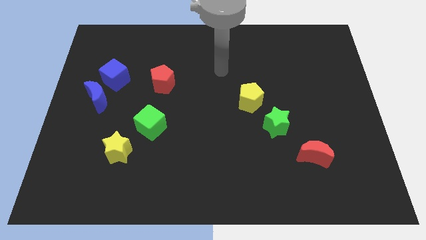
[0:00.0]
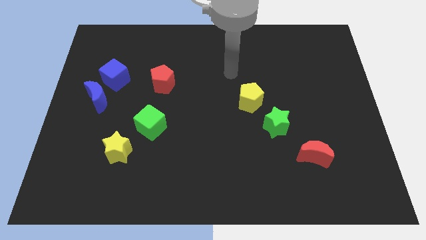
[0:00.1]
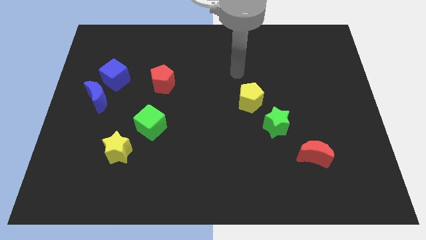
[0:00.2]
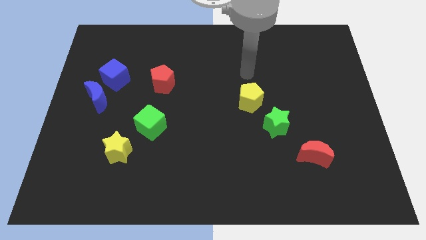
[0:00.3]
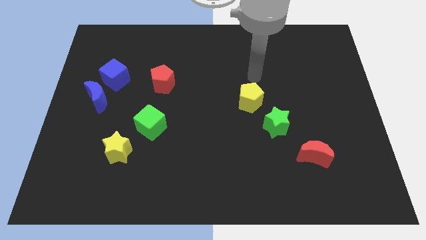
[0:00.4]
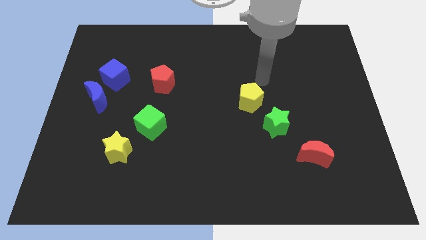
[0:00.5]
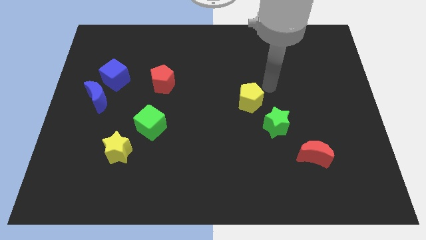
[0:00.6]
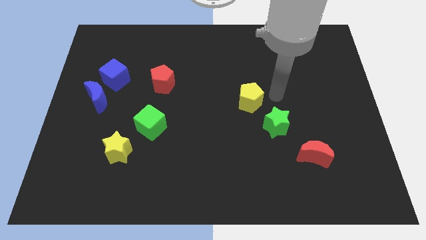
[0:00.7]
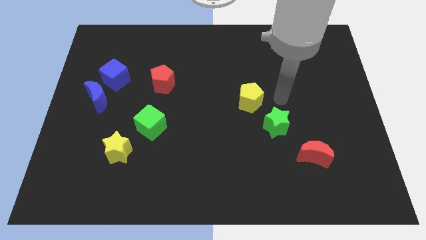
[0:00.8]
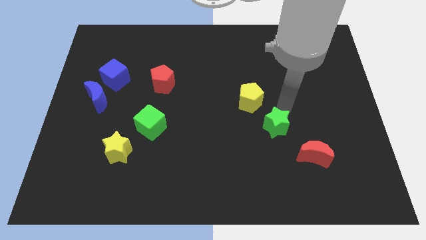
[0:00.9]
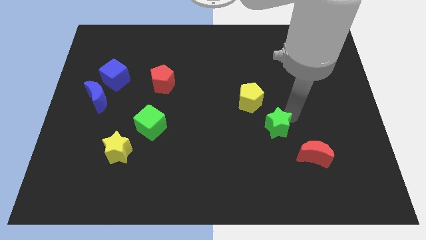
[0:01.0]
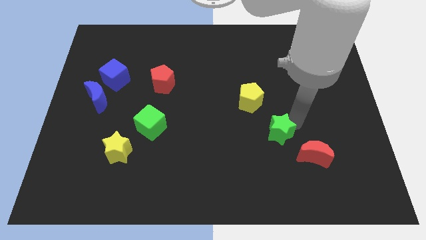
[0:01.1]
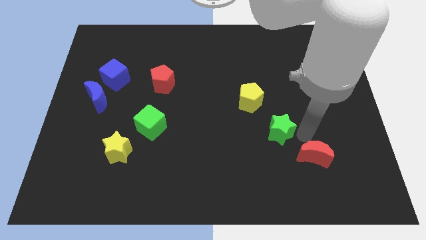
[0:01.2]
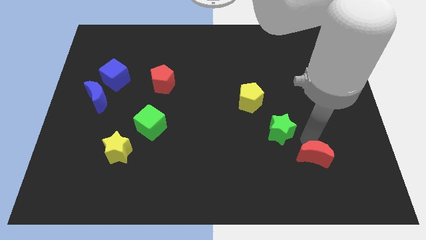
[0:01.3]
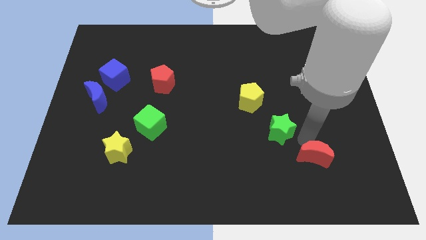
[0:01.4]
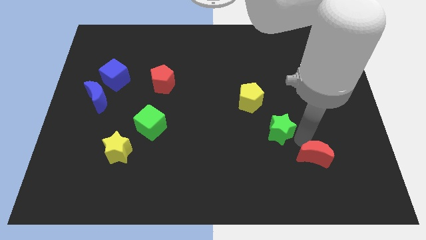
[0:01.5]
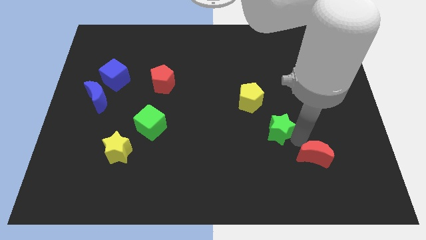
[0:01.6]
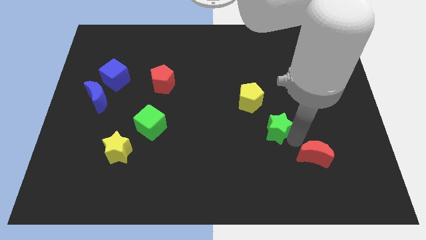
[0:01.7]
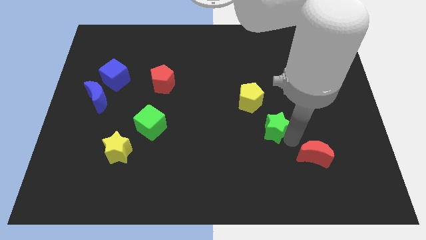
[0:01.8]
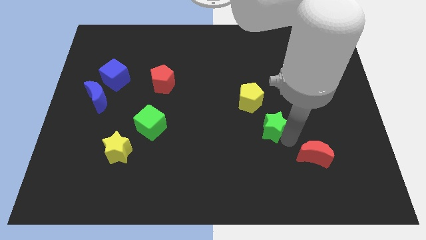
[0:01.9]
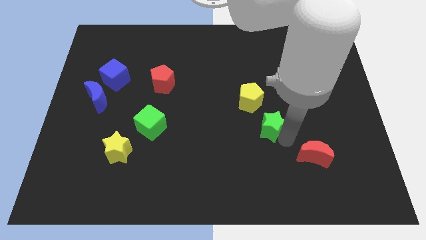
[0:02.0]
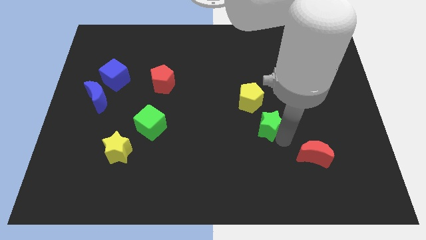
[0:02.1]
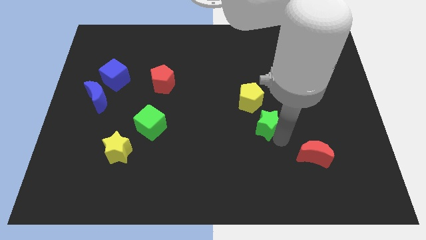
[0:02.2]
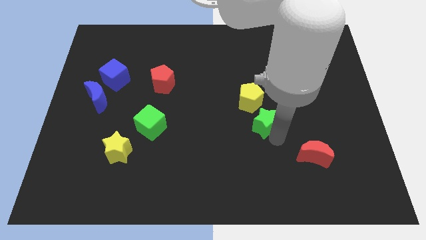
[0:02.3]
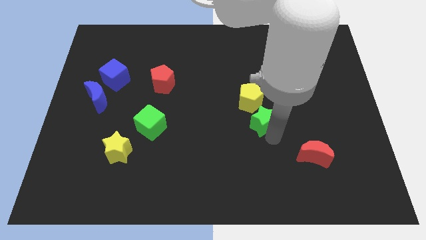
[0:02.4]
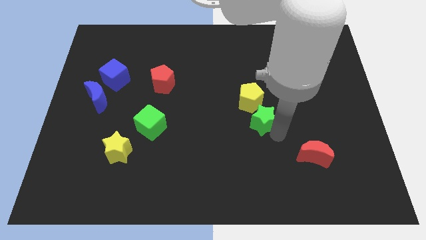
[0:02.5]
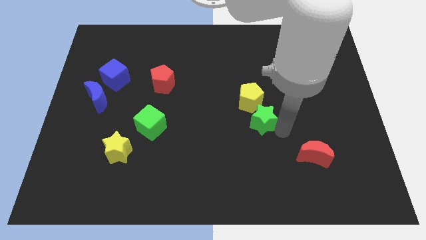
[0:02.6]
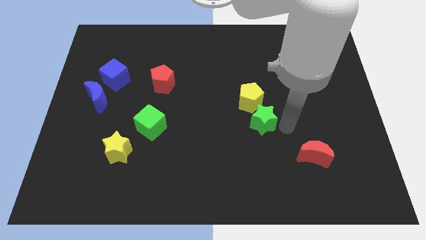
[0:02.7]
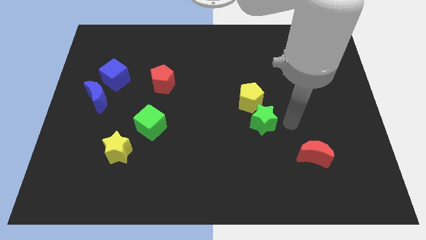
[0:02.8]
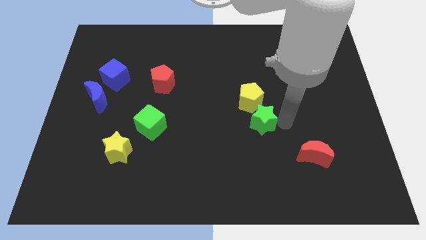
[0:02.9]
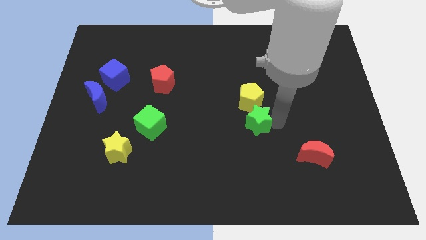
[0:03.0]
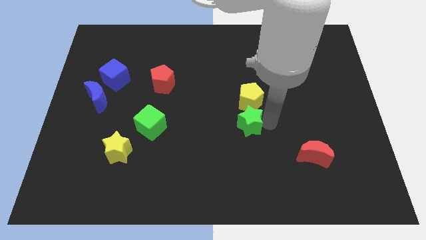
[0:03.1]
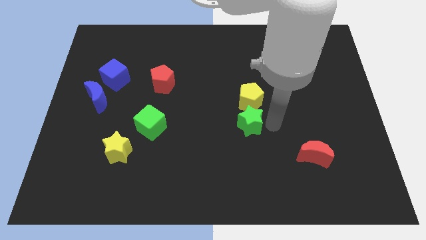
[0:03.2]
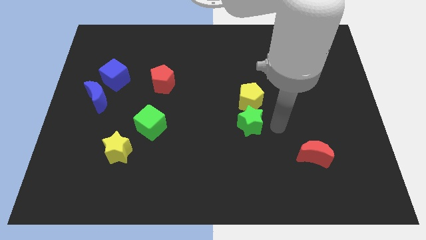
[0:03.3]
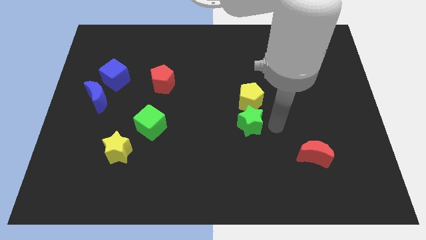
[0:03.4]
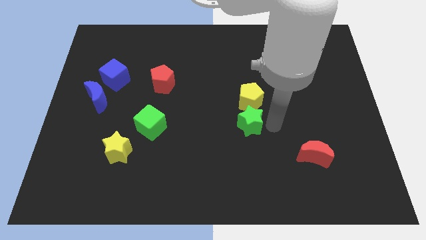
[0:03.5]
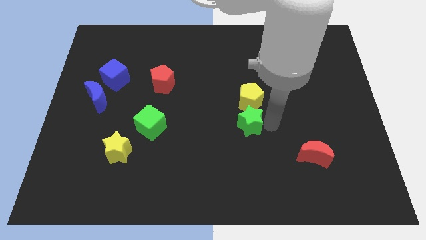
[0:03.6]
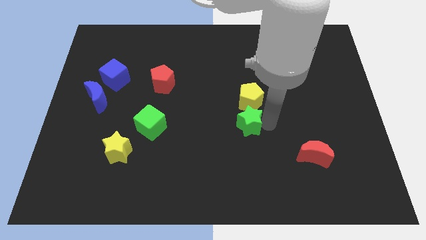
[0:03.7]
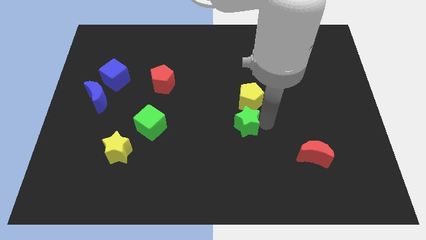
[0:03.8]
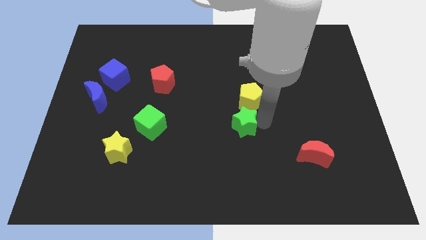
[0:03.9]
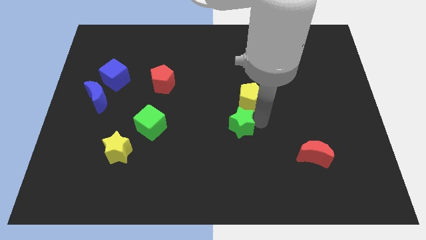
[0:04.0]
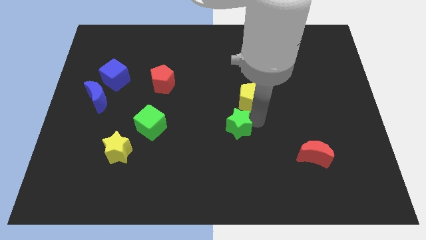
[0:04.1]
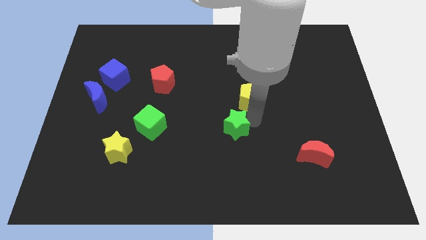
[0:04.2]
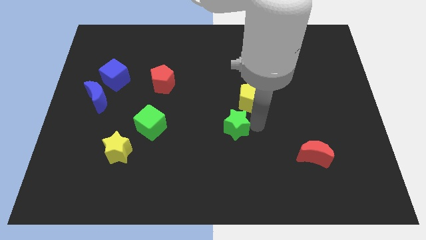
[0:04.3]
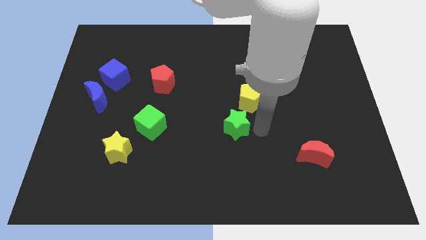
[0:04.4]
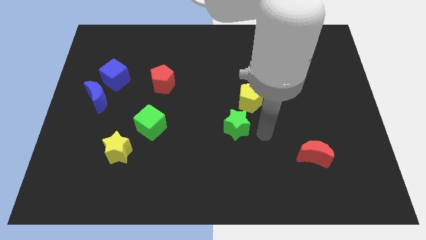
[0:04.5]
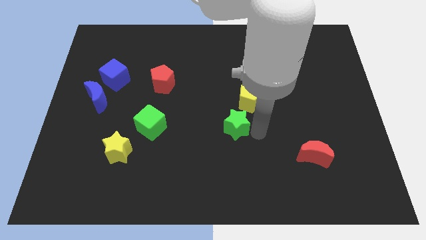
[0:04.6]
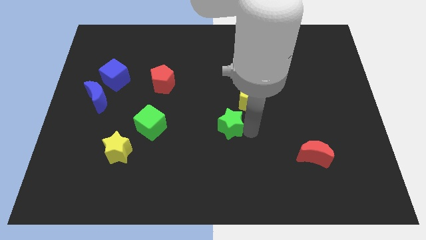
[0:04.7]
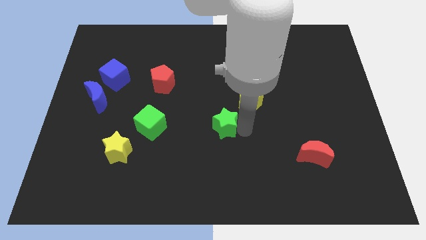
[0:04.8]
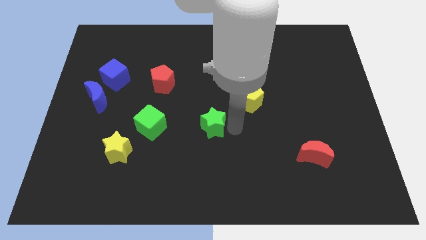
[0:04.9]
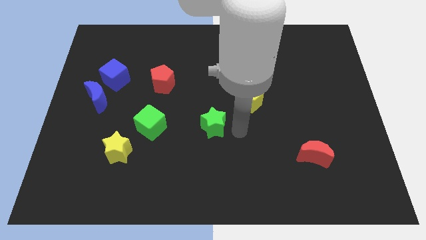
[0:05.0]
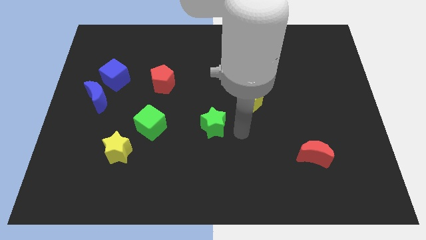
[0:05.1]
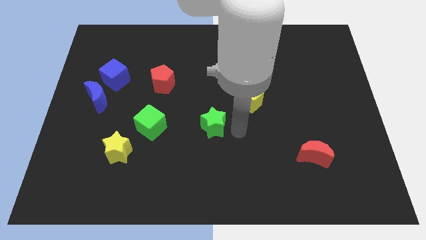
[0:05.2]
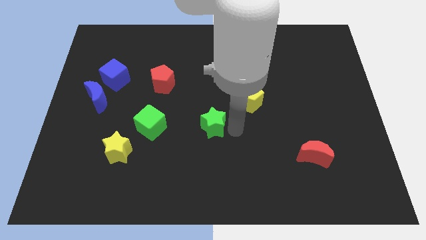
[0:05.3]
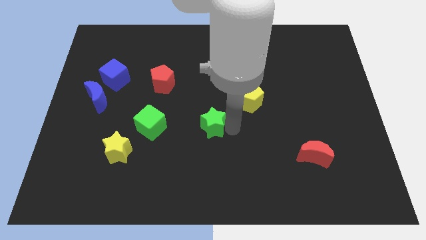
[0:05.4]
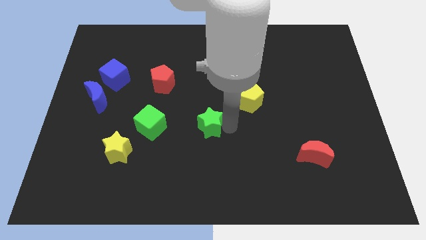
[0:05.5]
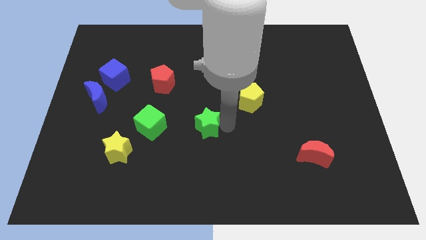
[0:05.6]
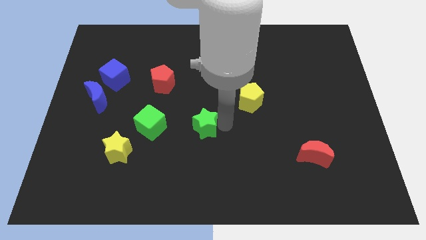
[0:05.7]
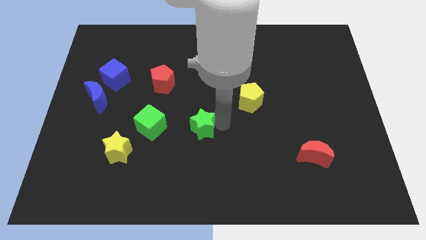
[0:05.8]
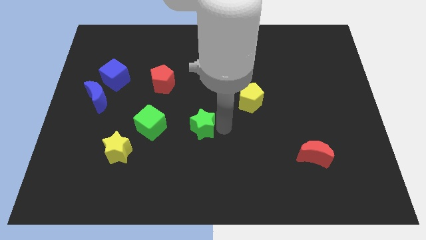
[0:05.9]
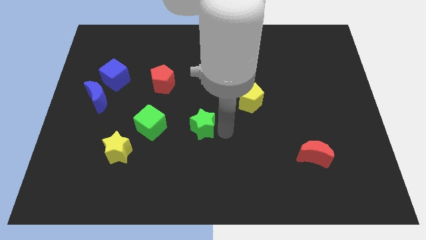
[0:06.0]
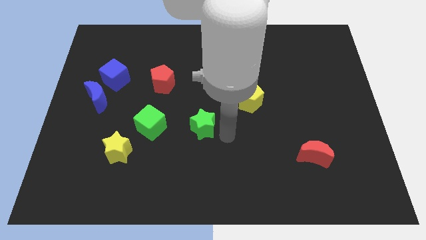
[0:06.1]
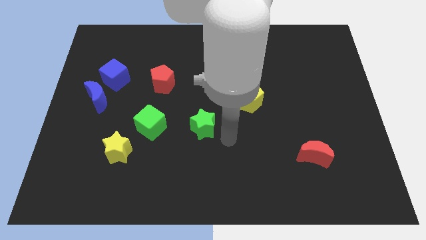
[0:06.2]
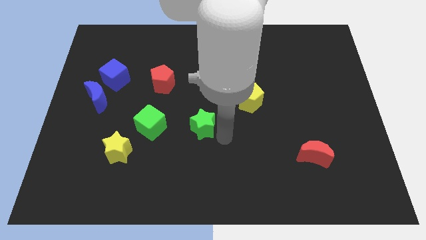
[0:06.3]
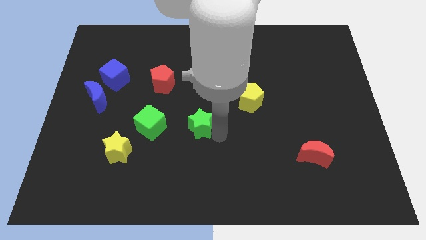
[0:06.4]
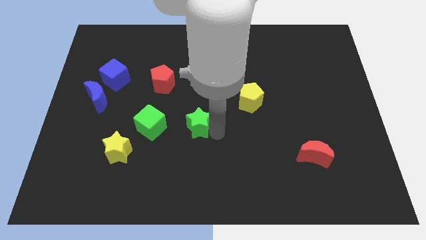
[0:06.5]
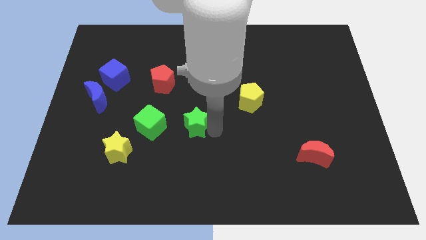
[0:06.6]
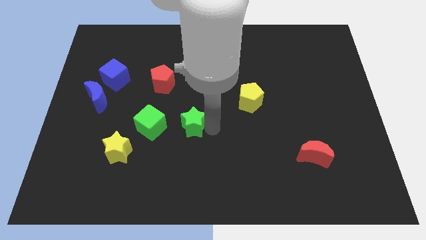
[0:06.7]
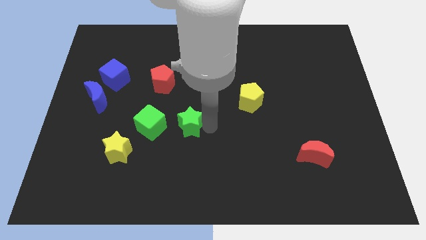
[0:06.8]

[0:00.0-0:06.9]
slide the green star to the left

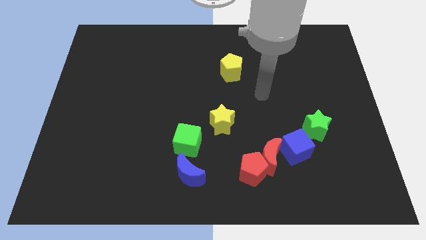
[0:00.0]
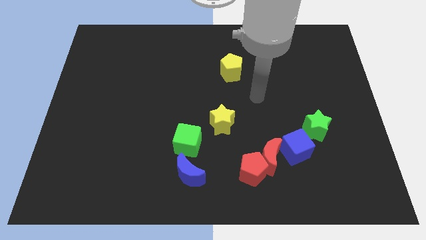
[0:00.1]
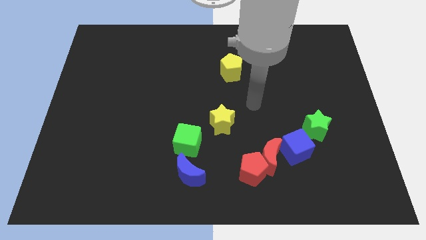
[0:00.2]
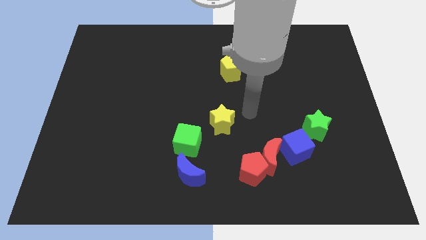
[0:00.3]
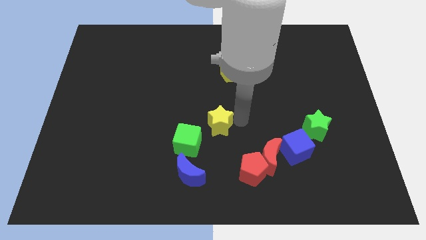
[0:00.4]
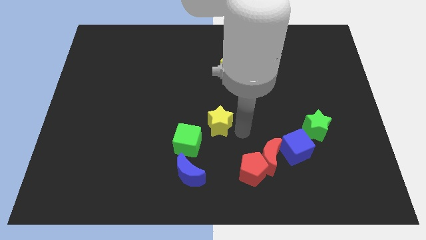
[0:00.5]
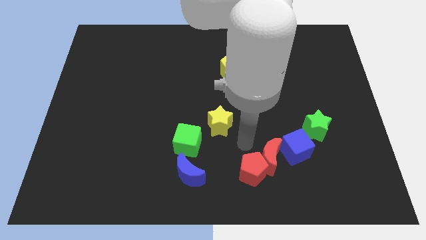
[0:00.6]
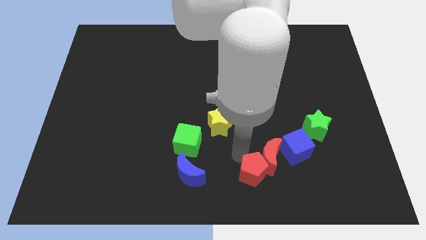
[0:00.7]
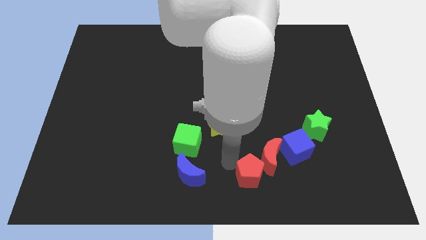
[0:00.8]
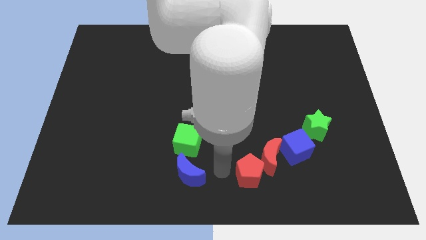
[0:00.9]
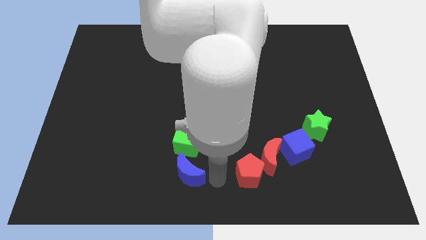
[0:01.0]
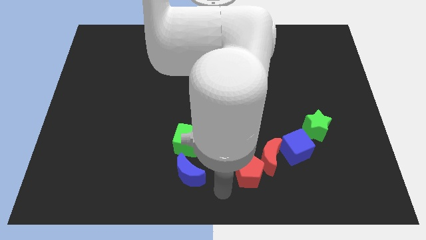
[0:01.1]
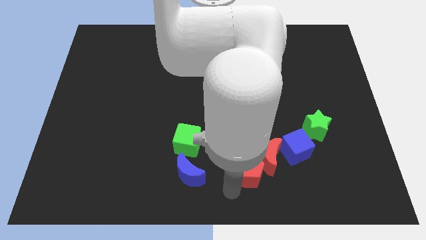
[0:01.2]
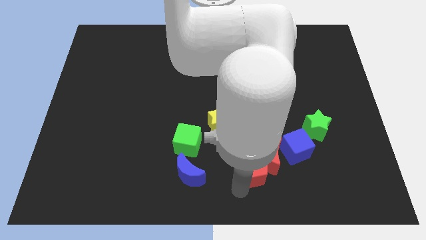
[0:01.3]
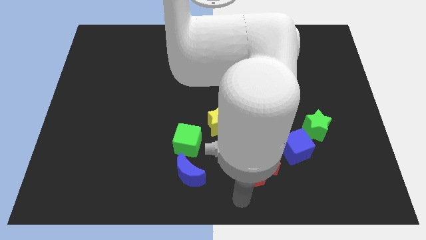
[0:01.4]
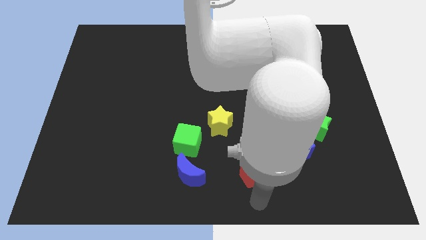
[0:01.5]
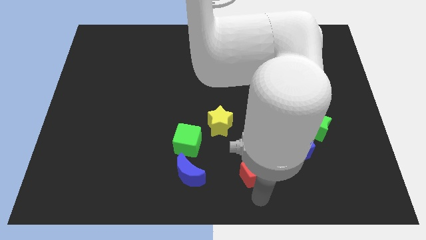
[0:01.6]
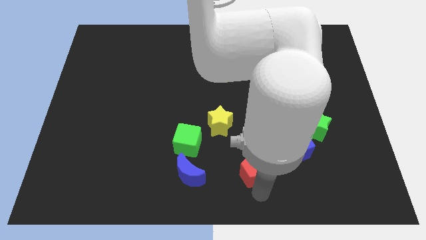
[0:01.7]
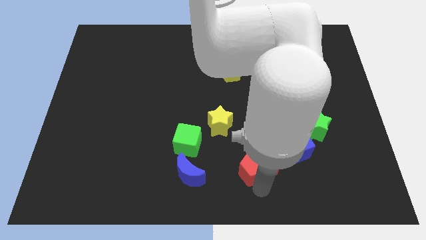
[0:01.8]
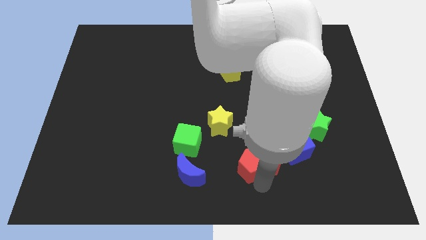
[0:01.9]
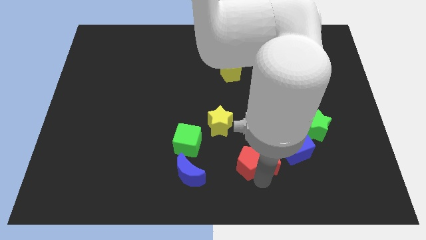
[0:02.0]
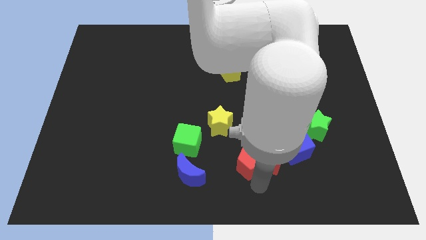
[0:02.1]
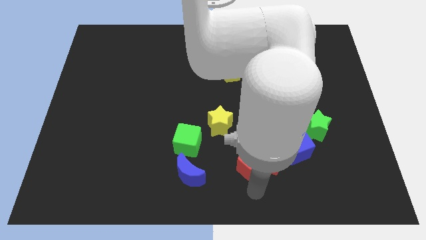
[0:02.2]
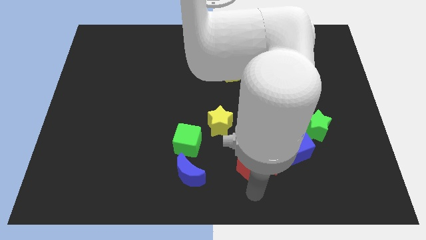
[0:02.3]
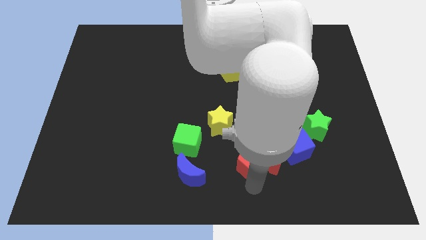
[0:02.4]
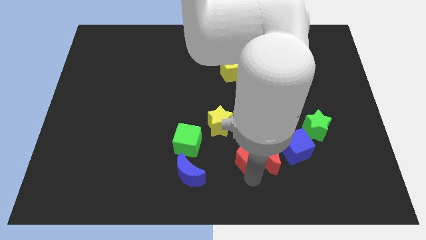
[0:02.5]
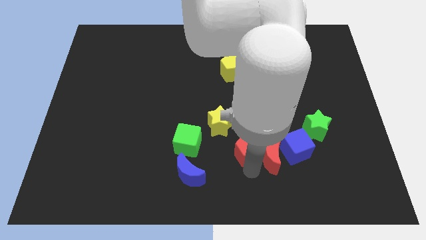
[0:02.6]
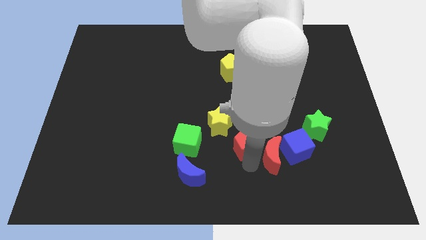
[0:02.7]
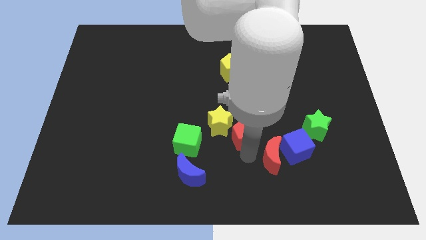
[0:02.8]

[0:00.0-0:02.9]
slightly slide the red pentagon upwards
